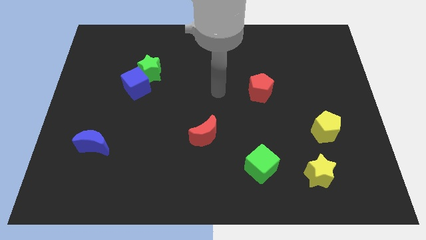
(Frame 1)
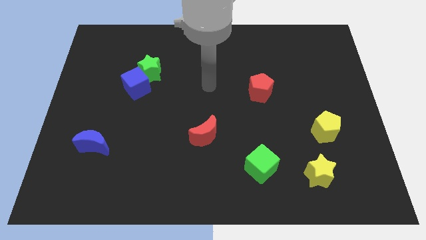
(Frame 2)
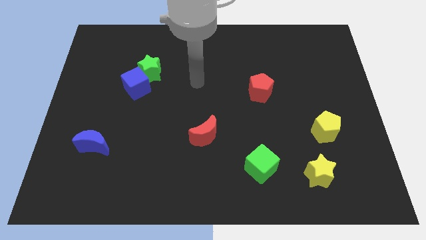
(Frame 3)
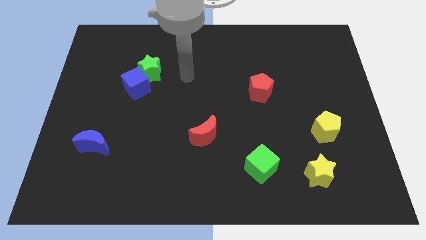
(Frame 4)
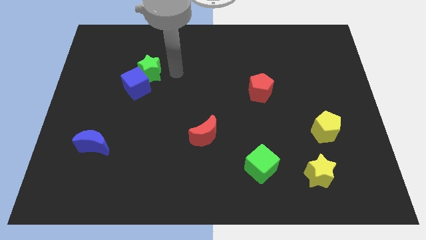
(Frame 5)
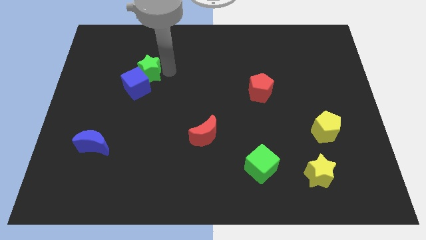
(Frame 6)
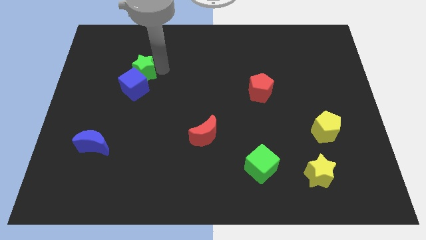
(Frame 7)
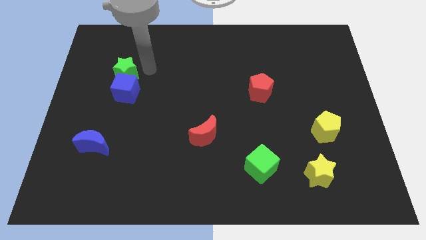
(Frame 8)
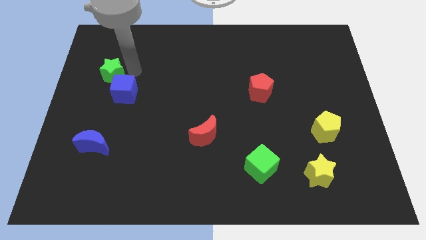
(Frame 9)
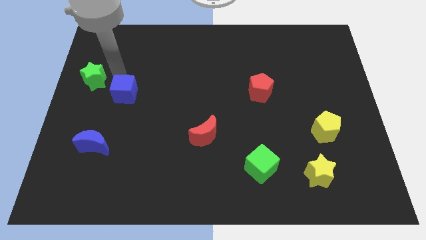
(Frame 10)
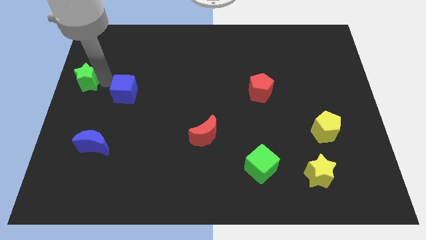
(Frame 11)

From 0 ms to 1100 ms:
pull the blue cube apart from the green star

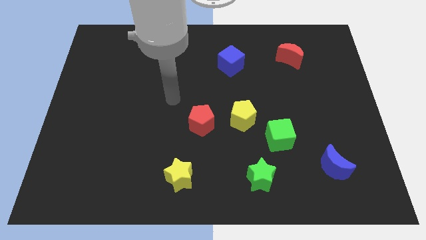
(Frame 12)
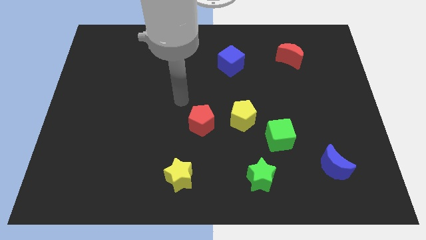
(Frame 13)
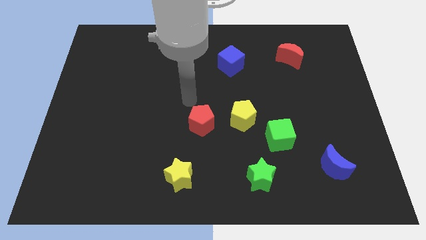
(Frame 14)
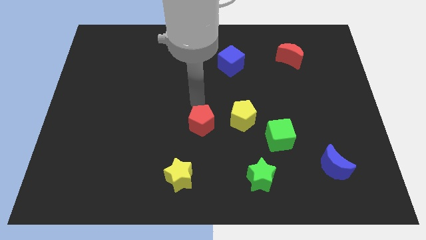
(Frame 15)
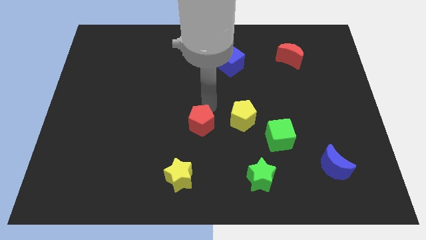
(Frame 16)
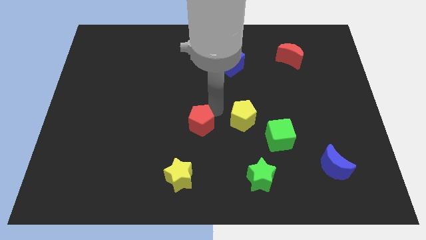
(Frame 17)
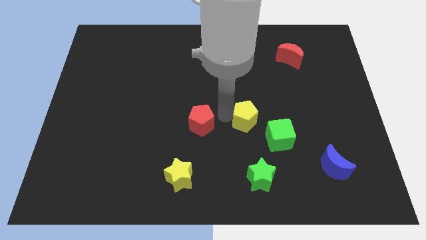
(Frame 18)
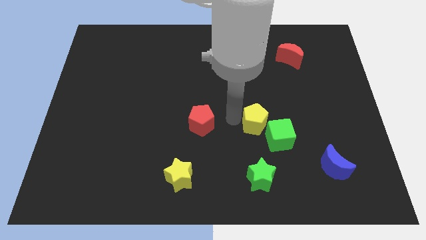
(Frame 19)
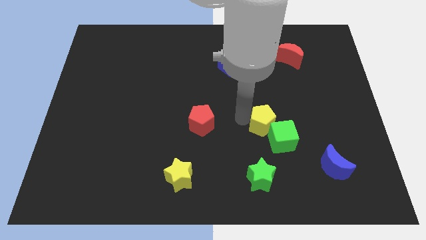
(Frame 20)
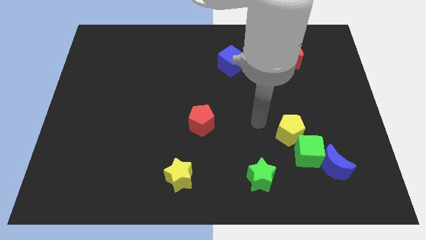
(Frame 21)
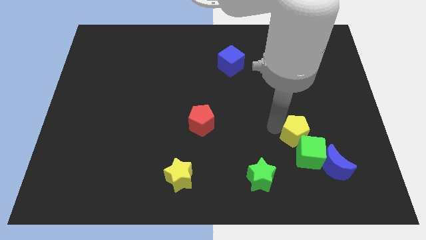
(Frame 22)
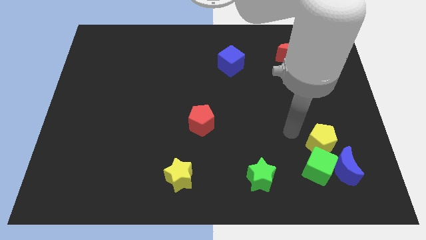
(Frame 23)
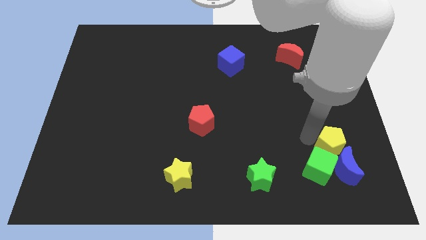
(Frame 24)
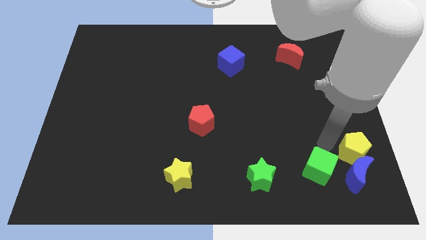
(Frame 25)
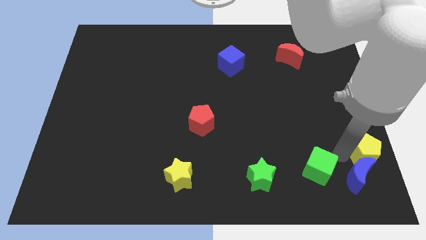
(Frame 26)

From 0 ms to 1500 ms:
separate the green cube from the yellow pentagon

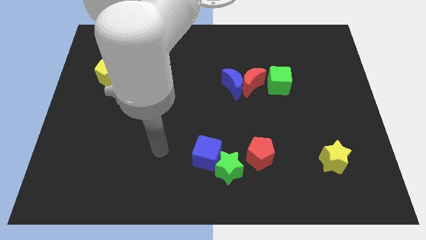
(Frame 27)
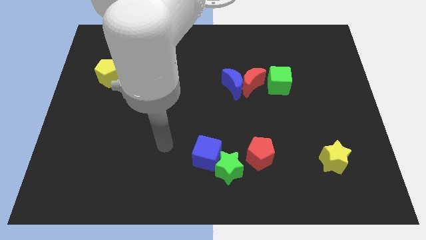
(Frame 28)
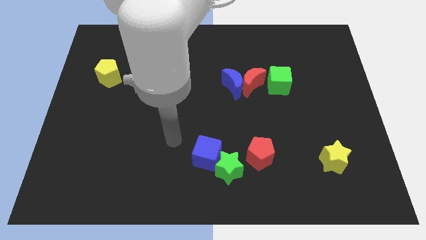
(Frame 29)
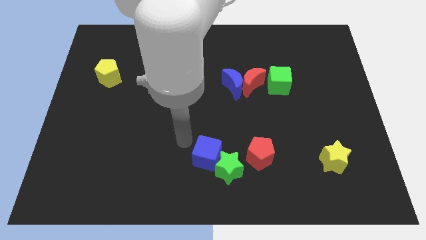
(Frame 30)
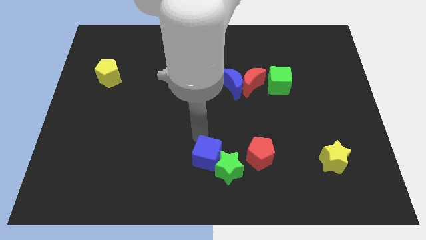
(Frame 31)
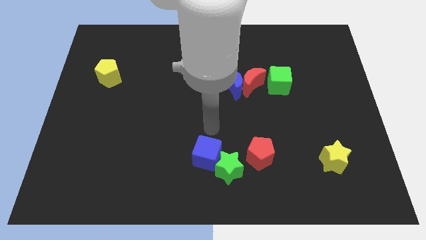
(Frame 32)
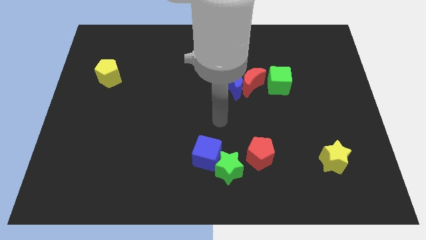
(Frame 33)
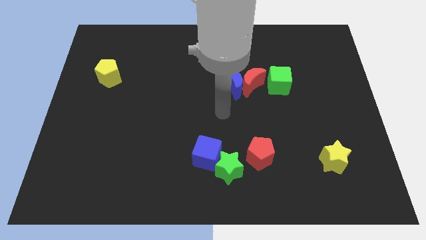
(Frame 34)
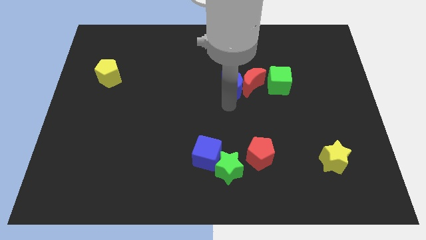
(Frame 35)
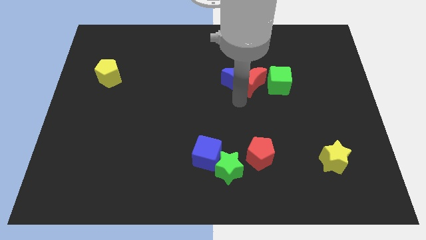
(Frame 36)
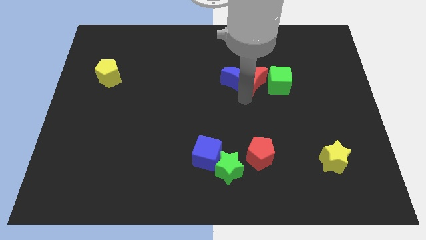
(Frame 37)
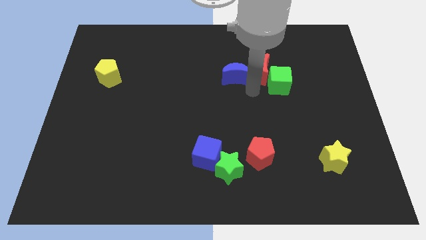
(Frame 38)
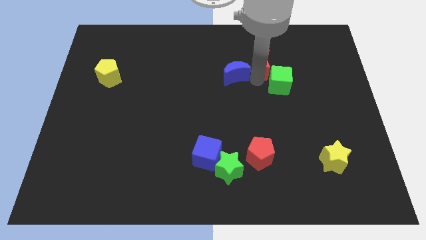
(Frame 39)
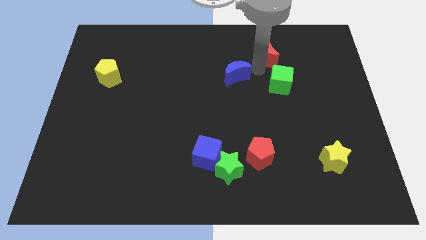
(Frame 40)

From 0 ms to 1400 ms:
pull the blue moon apart from the red moon

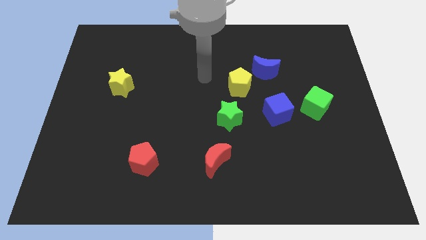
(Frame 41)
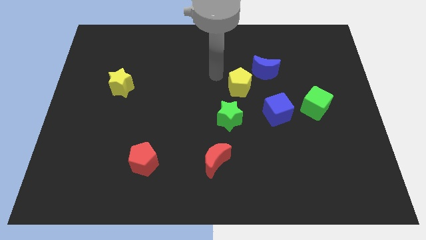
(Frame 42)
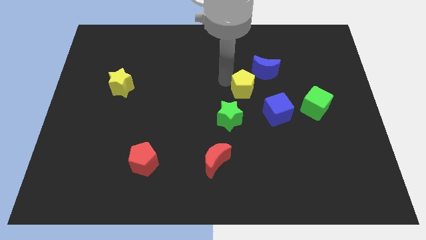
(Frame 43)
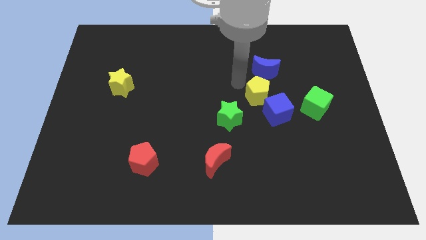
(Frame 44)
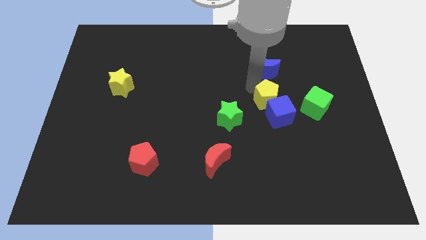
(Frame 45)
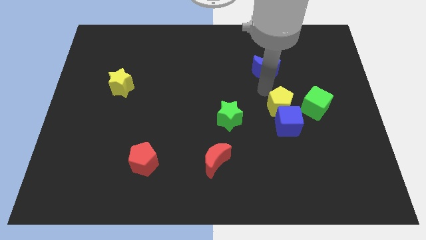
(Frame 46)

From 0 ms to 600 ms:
separate the blue moon from the yellow pentagon

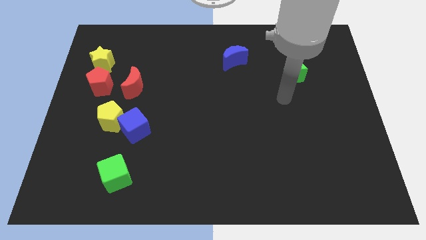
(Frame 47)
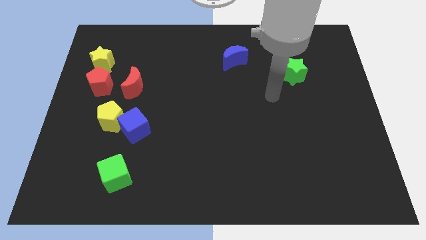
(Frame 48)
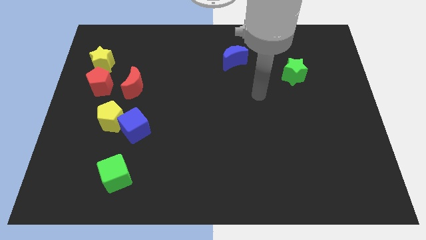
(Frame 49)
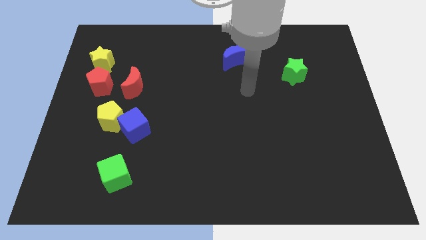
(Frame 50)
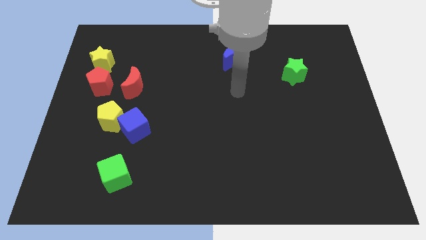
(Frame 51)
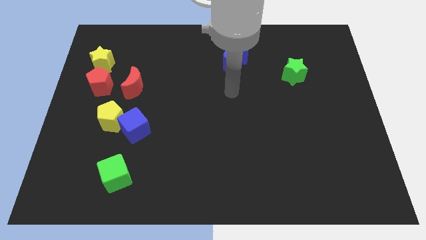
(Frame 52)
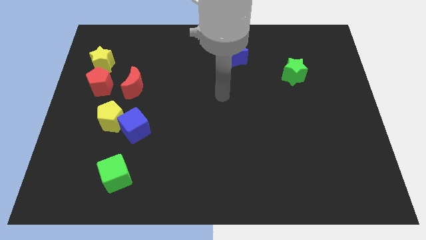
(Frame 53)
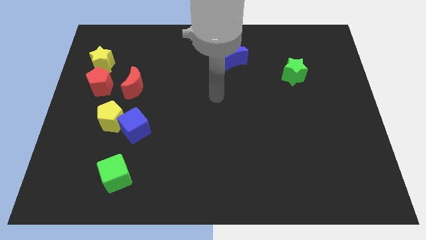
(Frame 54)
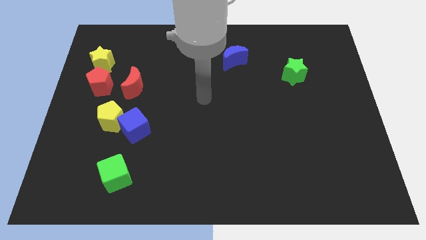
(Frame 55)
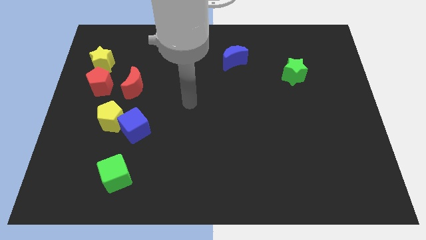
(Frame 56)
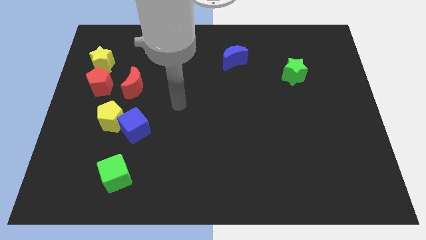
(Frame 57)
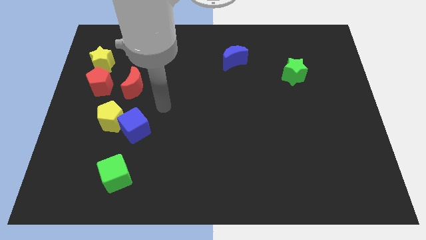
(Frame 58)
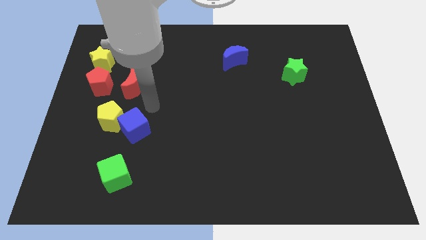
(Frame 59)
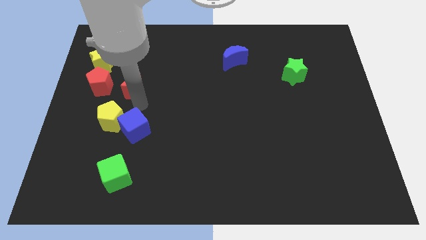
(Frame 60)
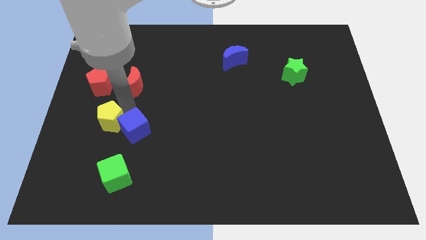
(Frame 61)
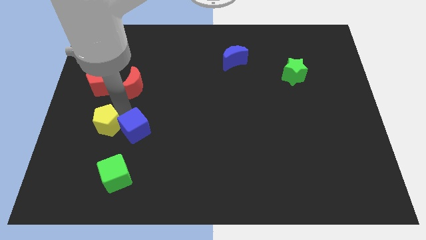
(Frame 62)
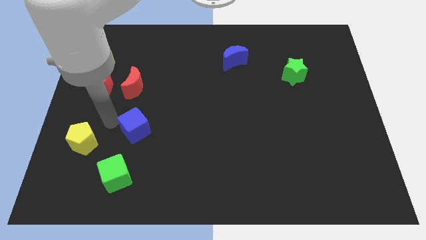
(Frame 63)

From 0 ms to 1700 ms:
move the blue cube away from the yellow pentagon

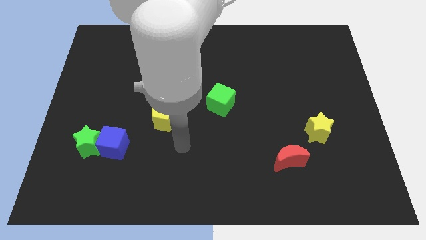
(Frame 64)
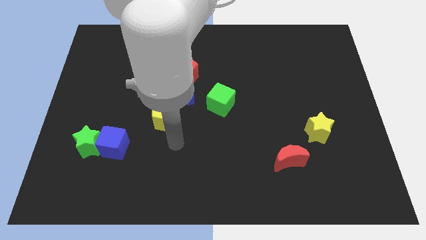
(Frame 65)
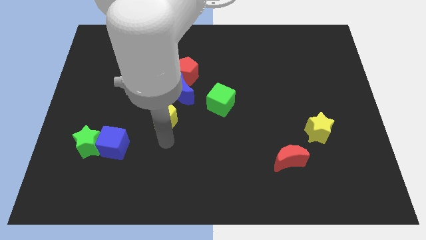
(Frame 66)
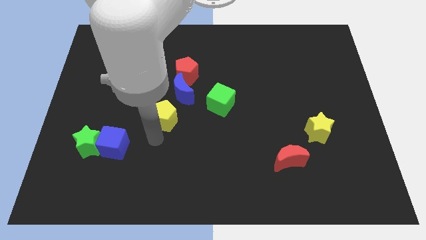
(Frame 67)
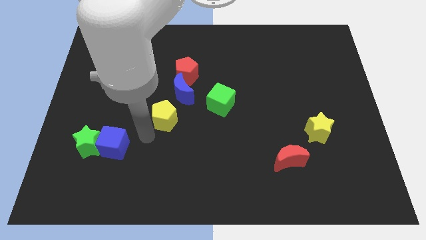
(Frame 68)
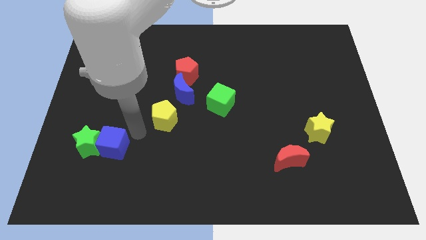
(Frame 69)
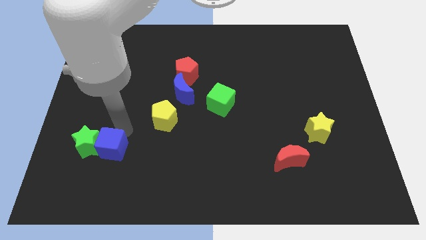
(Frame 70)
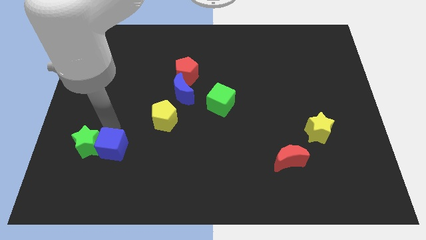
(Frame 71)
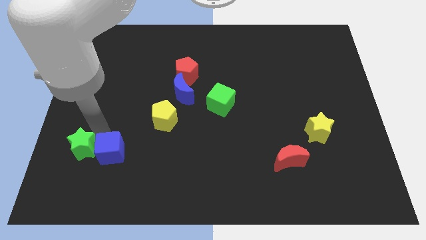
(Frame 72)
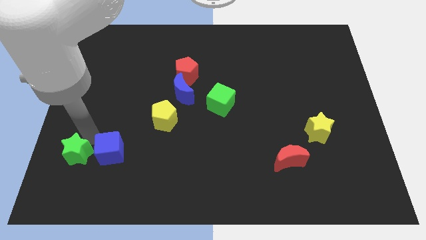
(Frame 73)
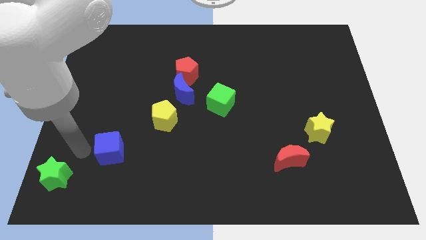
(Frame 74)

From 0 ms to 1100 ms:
move the blue cube away from the green star

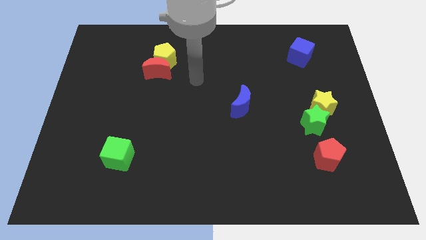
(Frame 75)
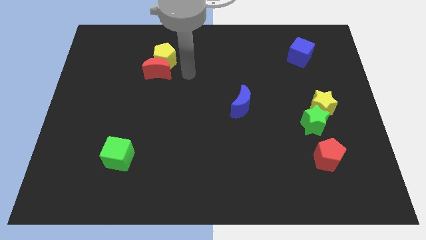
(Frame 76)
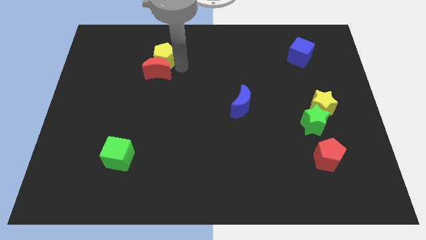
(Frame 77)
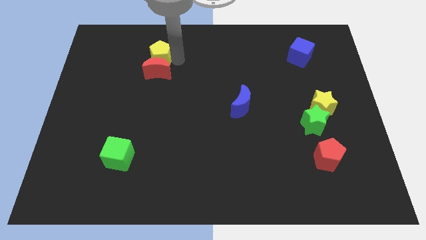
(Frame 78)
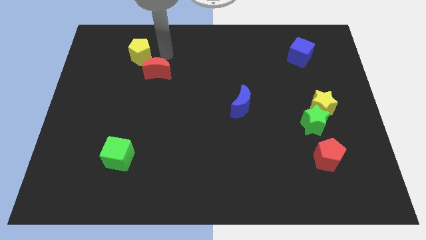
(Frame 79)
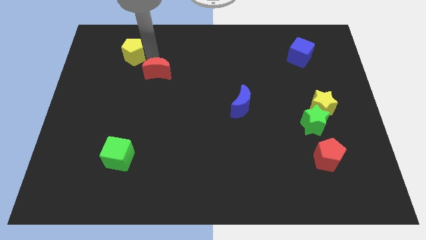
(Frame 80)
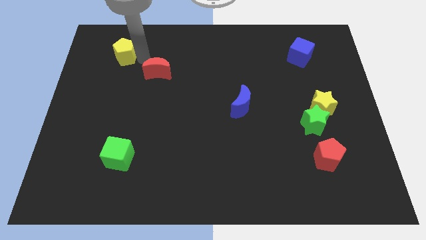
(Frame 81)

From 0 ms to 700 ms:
pull the red moon apart from the yellow pentagon

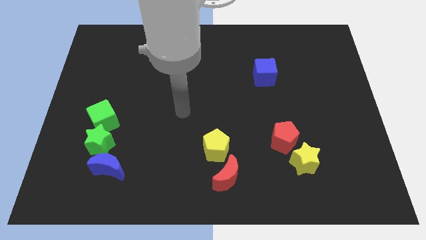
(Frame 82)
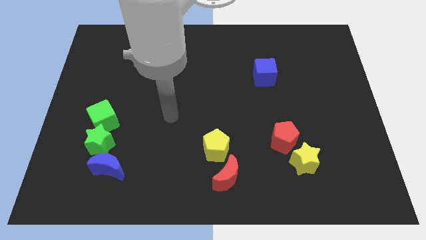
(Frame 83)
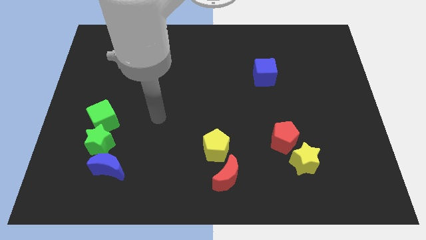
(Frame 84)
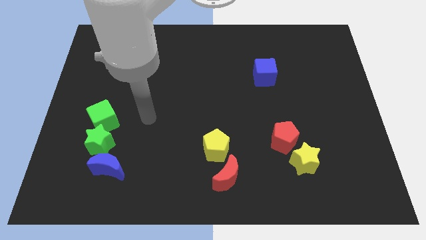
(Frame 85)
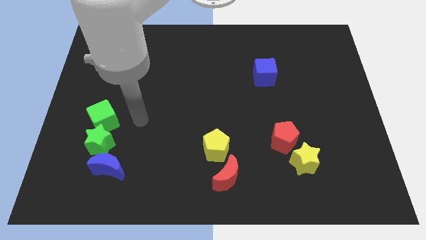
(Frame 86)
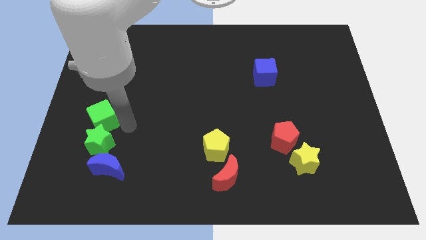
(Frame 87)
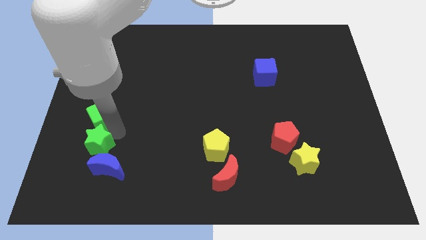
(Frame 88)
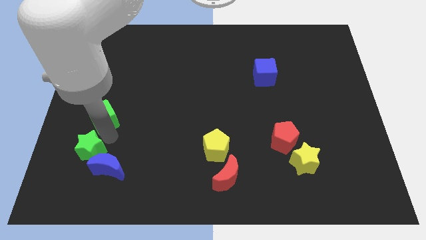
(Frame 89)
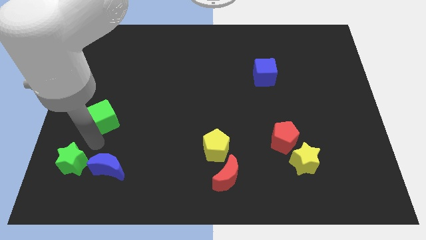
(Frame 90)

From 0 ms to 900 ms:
separate the green cube from the green star

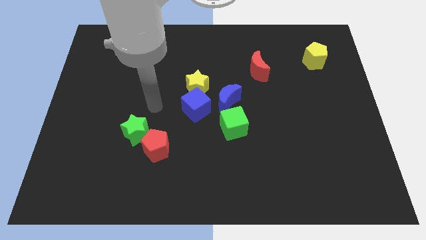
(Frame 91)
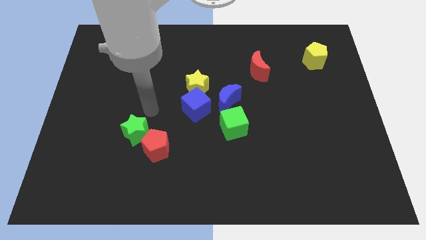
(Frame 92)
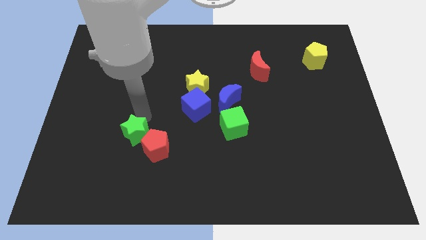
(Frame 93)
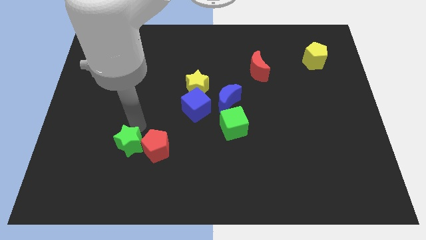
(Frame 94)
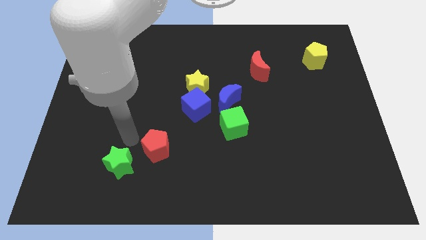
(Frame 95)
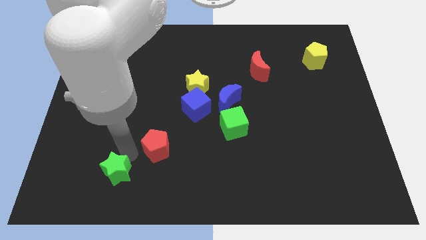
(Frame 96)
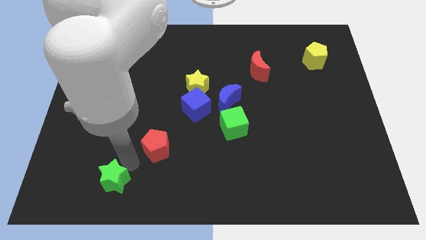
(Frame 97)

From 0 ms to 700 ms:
separate the red pentagon from the green star
